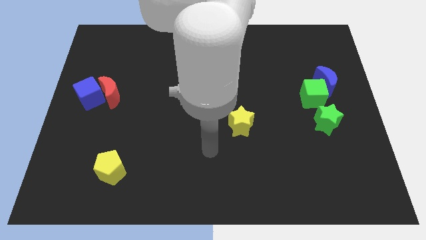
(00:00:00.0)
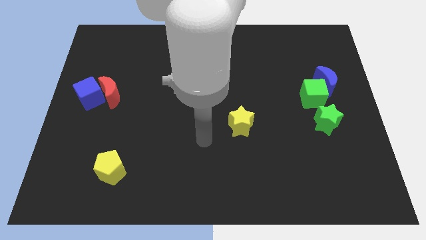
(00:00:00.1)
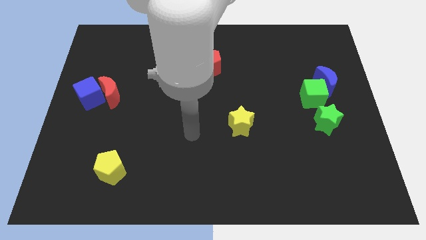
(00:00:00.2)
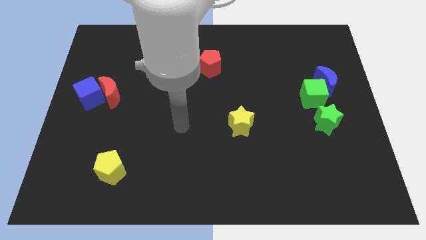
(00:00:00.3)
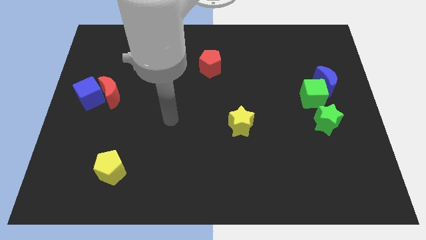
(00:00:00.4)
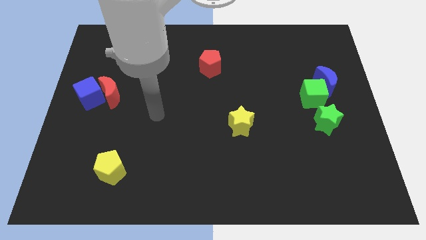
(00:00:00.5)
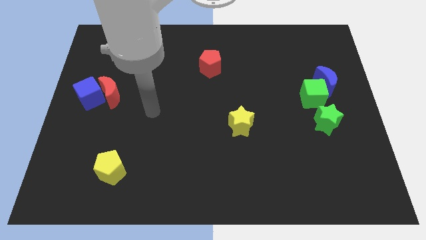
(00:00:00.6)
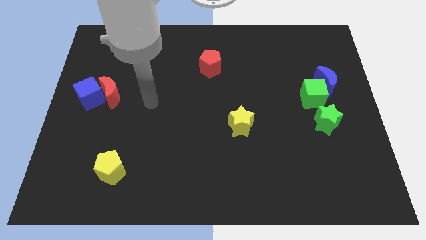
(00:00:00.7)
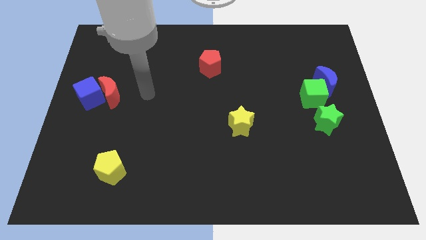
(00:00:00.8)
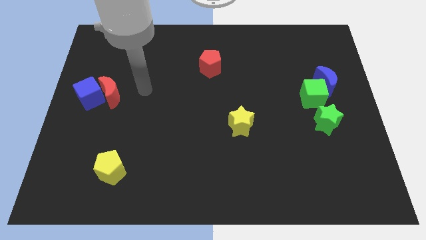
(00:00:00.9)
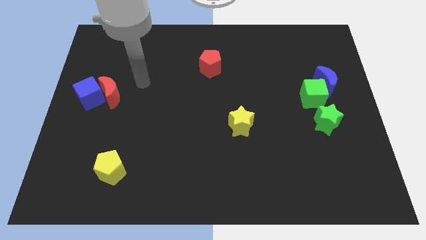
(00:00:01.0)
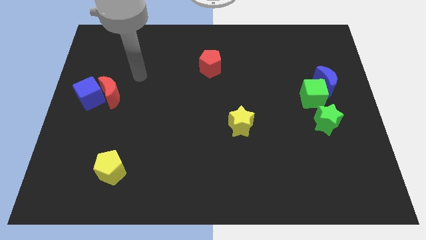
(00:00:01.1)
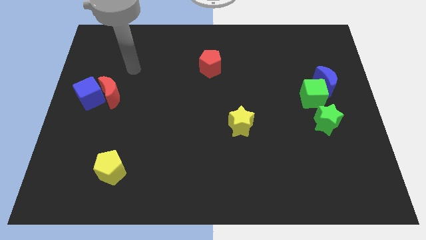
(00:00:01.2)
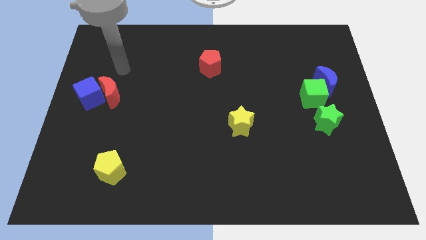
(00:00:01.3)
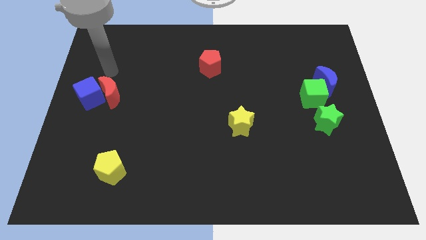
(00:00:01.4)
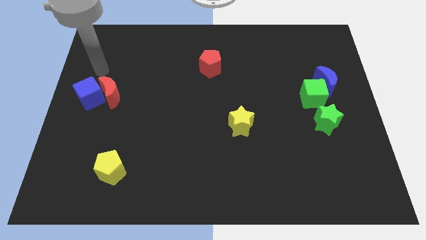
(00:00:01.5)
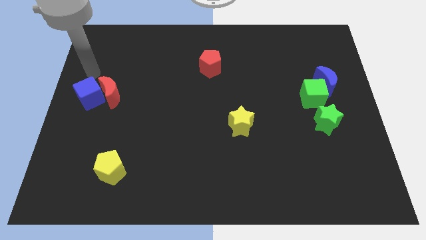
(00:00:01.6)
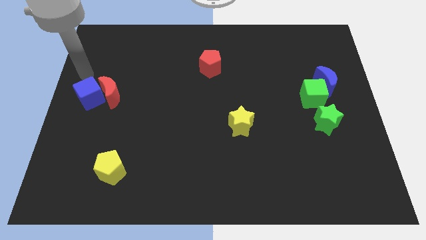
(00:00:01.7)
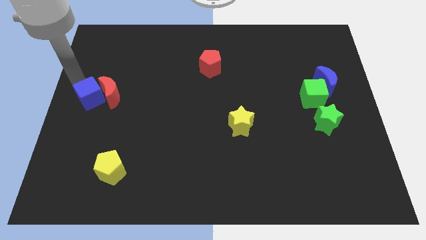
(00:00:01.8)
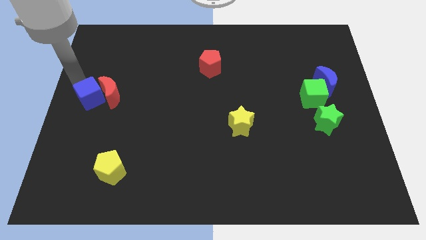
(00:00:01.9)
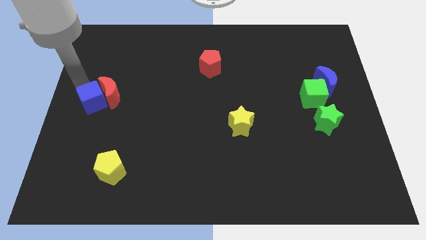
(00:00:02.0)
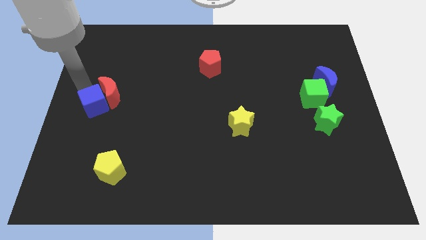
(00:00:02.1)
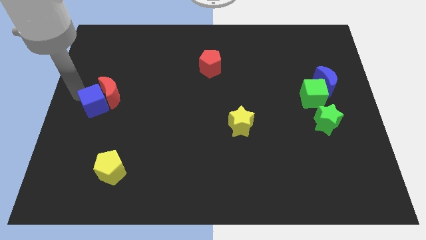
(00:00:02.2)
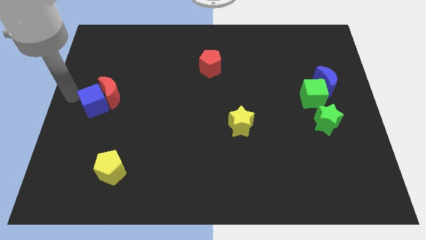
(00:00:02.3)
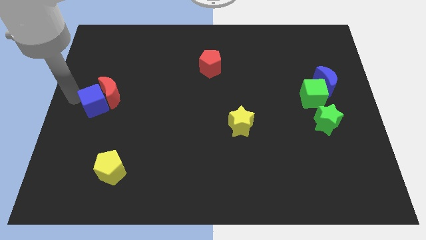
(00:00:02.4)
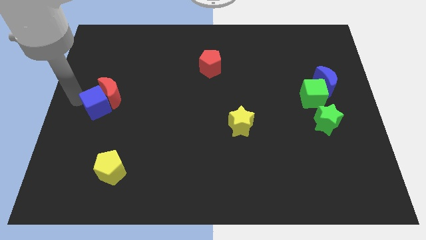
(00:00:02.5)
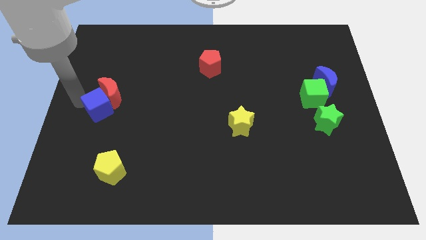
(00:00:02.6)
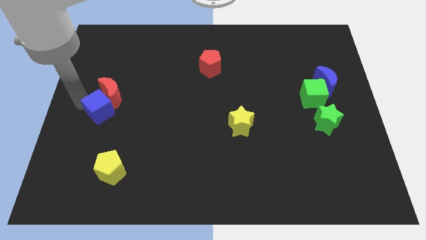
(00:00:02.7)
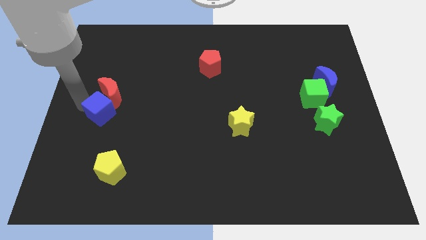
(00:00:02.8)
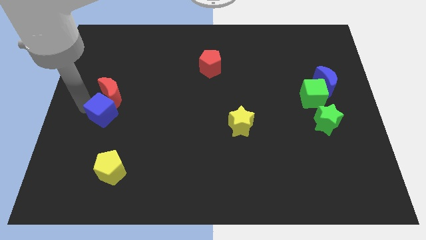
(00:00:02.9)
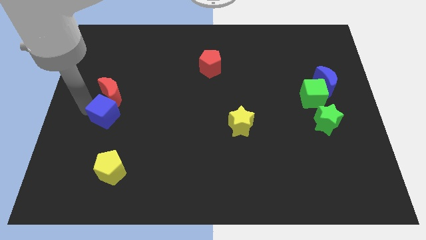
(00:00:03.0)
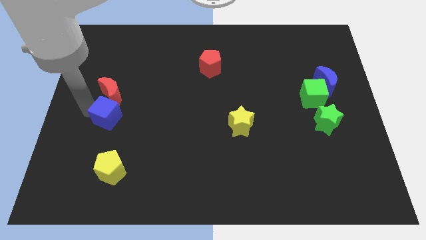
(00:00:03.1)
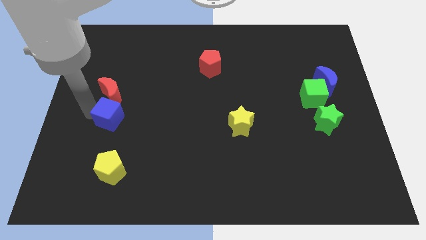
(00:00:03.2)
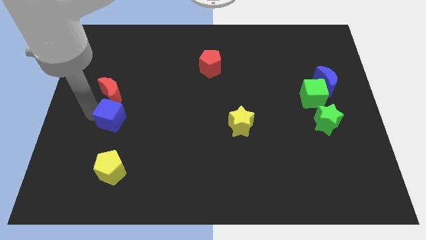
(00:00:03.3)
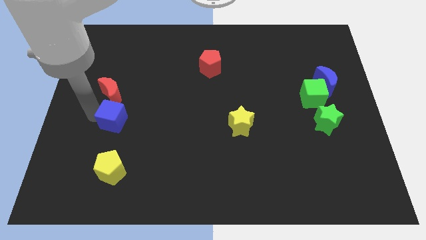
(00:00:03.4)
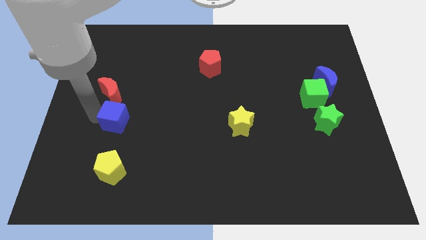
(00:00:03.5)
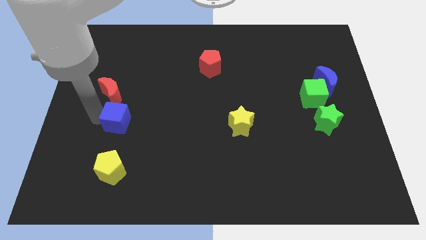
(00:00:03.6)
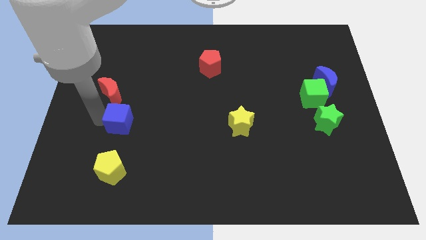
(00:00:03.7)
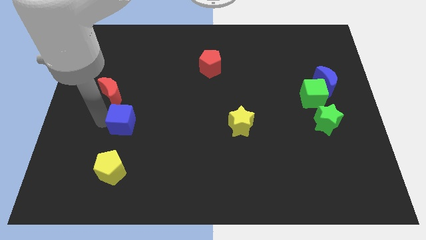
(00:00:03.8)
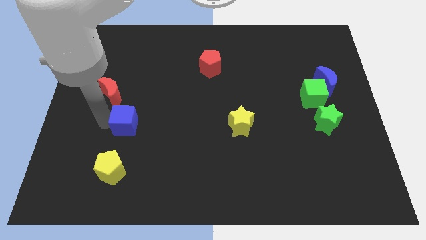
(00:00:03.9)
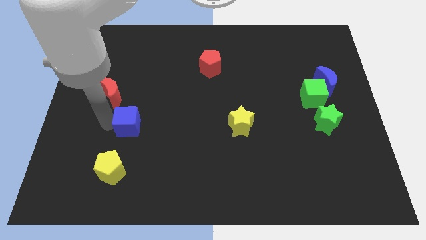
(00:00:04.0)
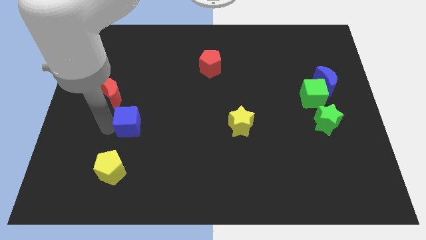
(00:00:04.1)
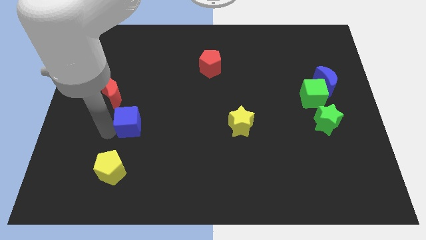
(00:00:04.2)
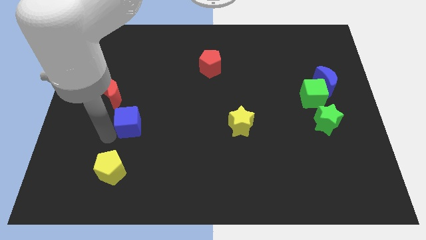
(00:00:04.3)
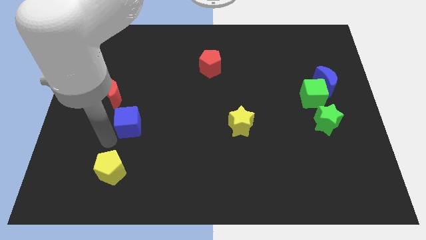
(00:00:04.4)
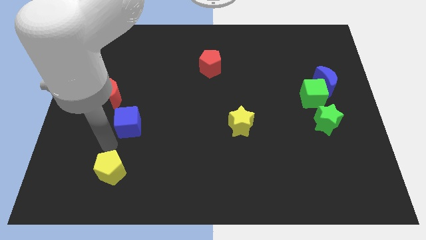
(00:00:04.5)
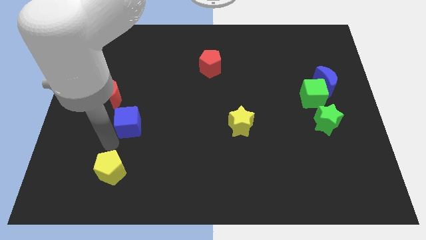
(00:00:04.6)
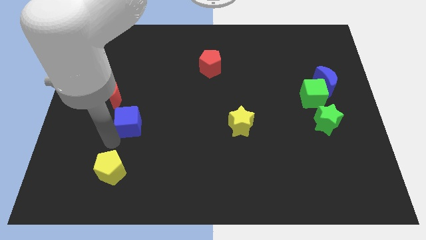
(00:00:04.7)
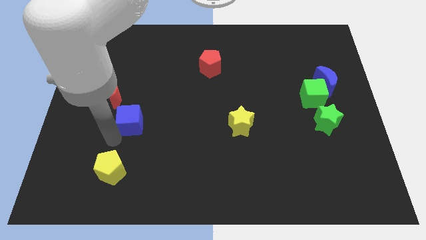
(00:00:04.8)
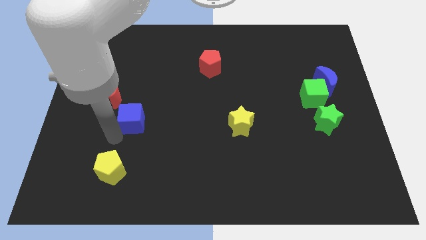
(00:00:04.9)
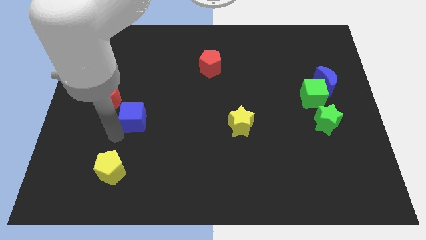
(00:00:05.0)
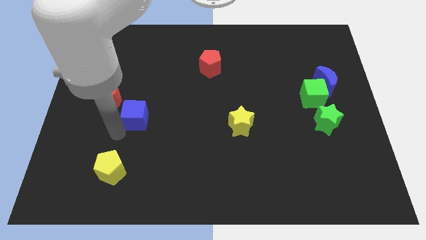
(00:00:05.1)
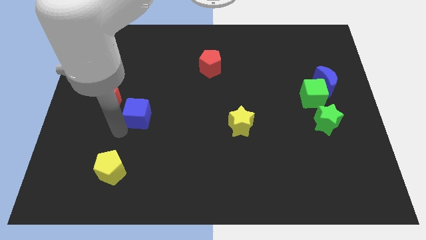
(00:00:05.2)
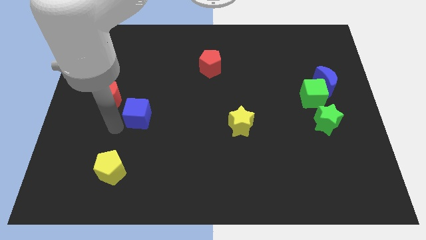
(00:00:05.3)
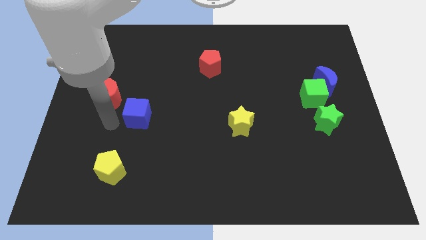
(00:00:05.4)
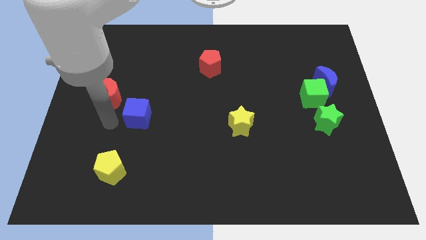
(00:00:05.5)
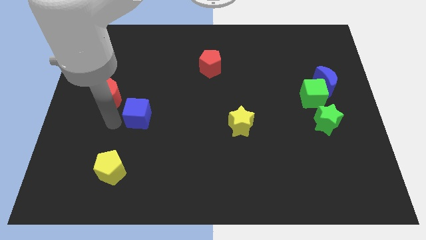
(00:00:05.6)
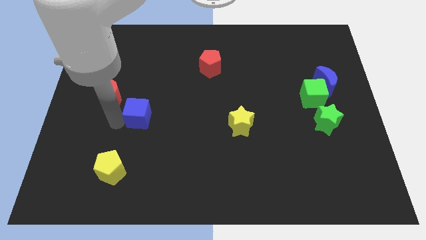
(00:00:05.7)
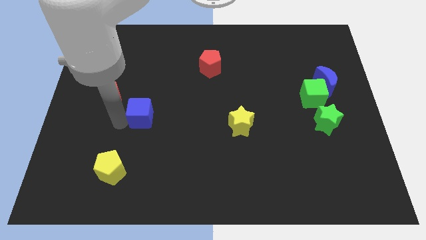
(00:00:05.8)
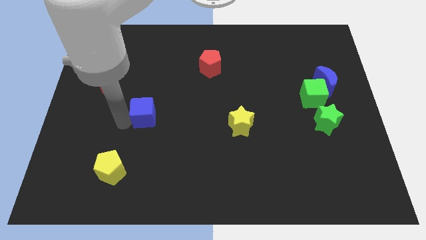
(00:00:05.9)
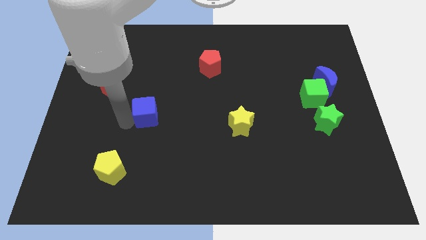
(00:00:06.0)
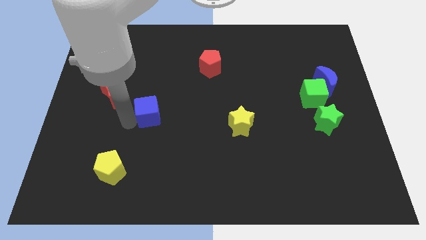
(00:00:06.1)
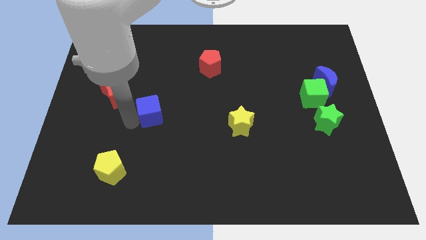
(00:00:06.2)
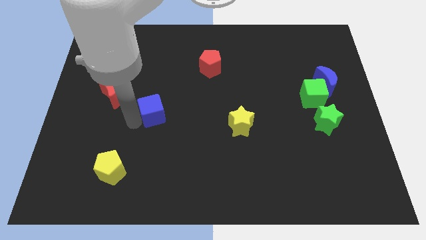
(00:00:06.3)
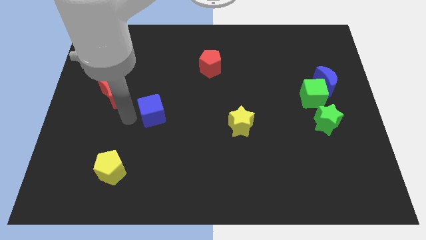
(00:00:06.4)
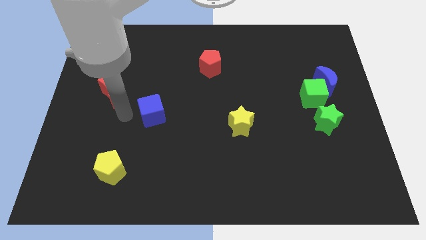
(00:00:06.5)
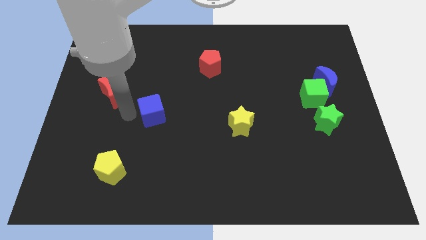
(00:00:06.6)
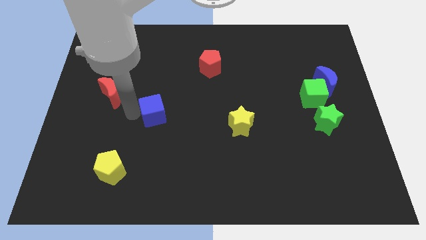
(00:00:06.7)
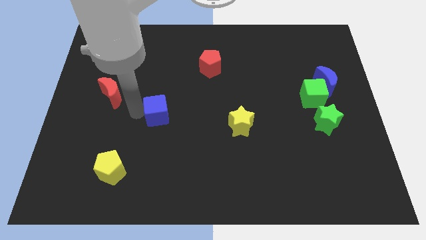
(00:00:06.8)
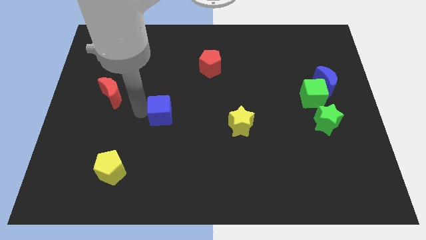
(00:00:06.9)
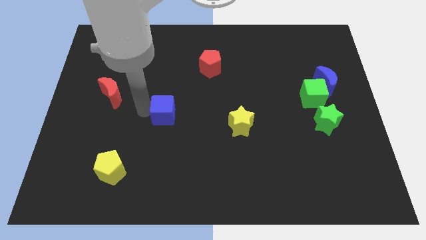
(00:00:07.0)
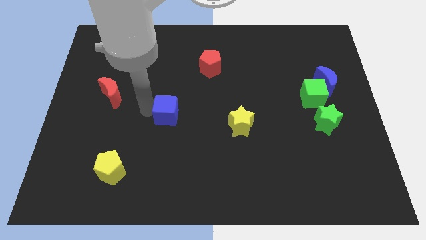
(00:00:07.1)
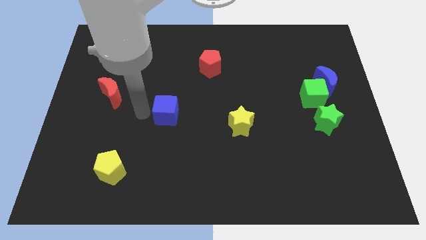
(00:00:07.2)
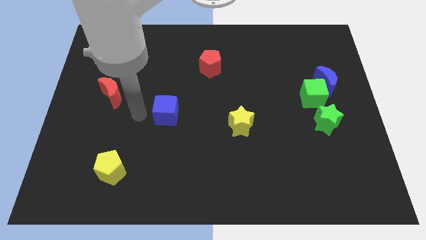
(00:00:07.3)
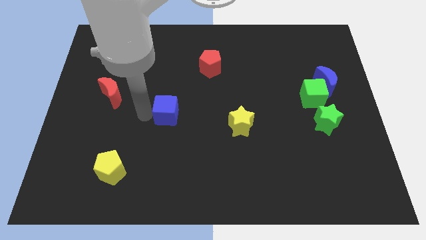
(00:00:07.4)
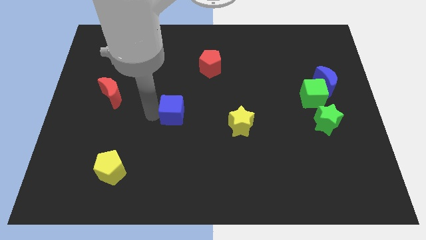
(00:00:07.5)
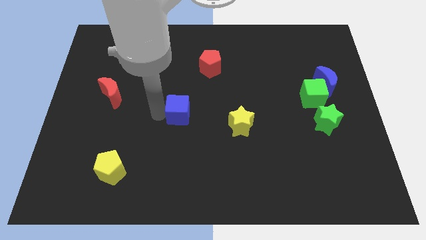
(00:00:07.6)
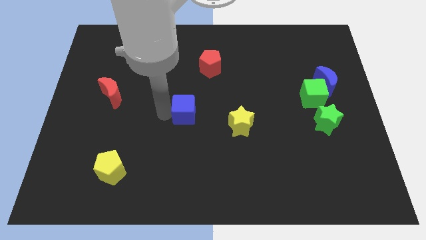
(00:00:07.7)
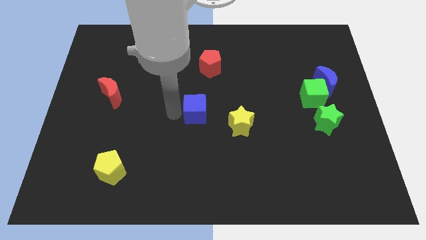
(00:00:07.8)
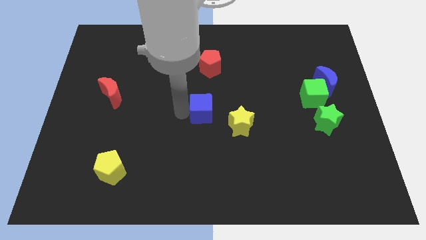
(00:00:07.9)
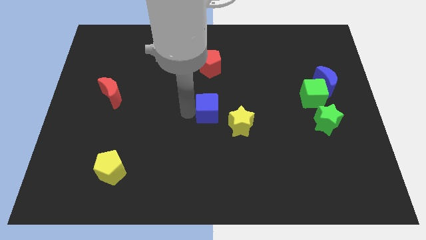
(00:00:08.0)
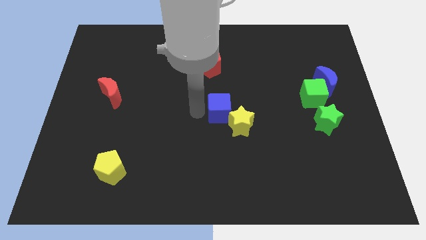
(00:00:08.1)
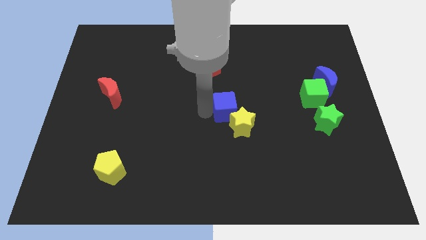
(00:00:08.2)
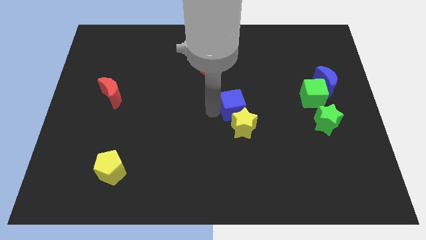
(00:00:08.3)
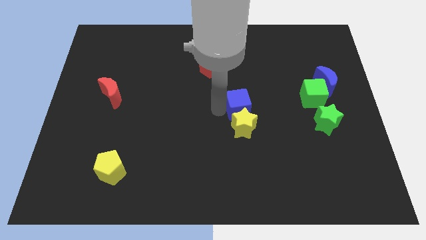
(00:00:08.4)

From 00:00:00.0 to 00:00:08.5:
push the blue cube to the top right of the yellow star
